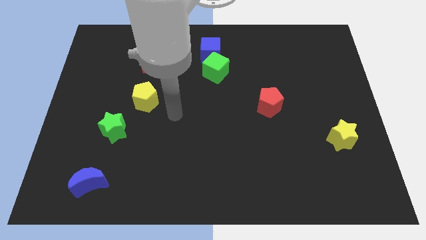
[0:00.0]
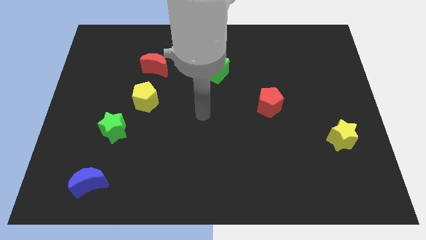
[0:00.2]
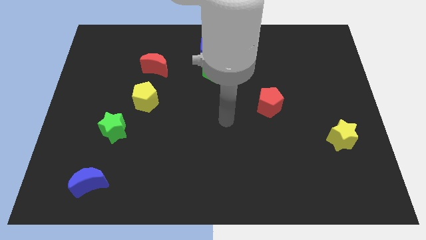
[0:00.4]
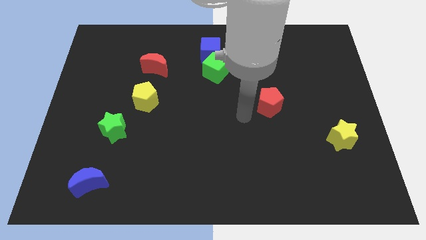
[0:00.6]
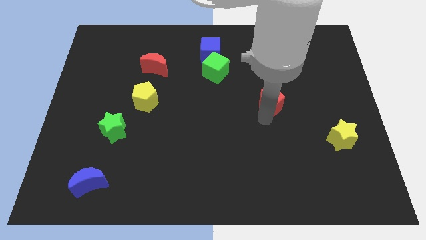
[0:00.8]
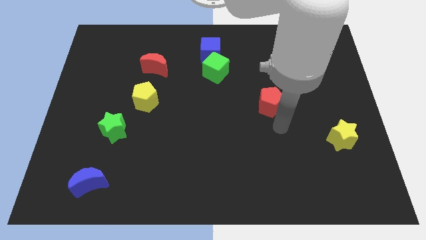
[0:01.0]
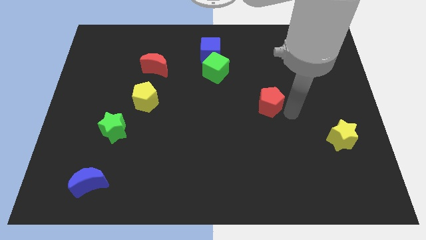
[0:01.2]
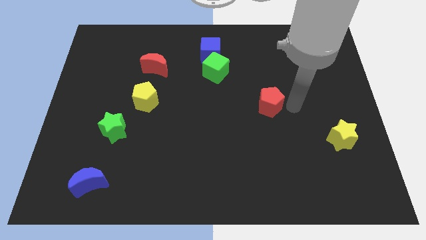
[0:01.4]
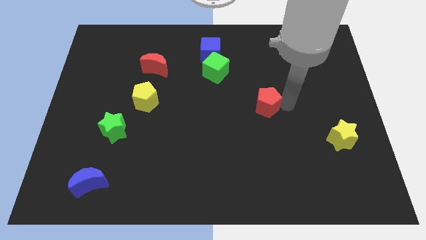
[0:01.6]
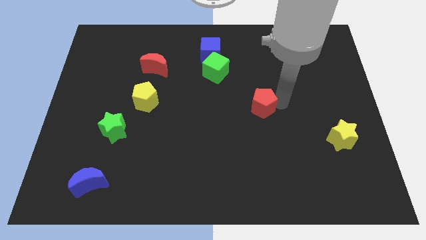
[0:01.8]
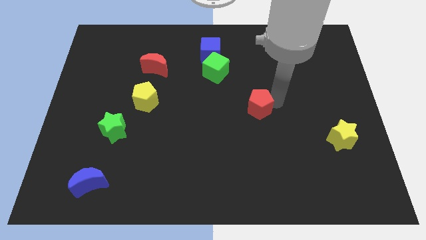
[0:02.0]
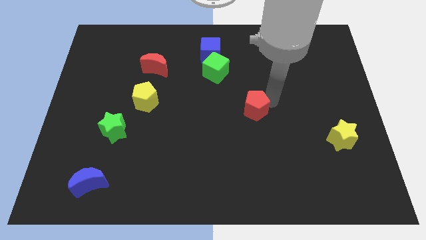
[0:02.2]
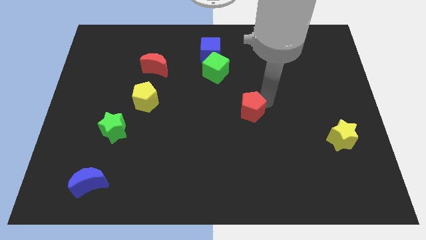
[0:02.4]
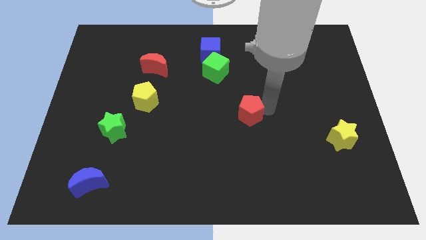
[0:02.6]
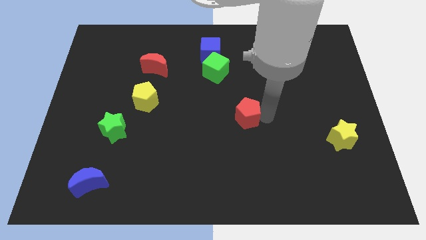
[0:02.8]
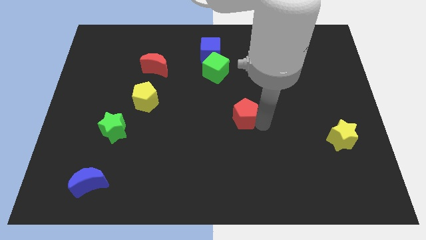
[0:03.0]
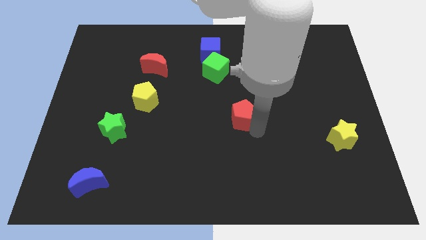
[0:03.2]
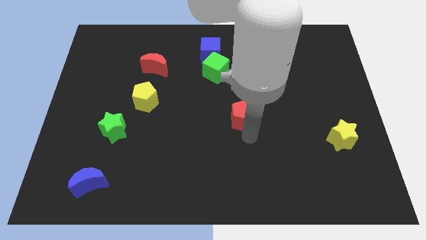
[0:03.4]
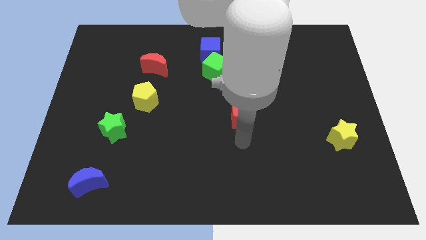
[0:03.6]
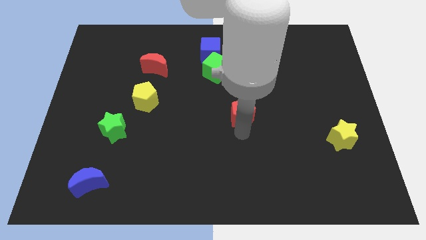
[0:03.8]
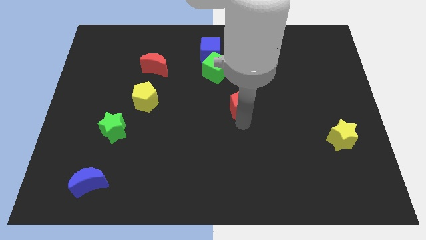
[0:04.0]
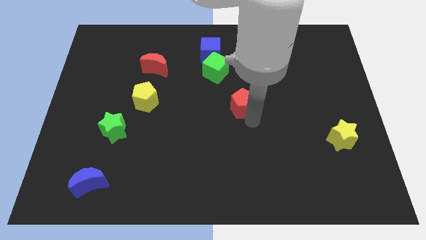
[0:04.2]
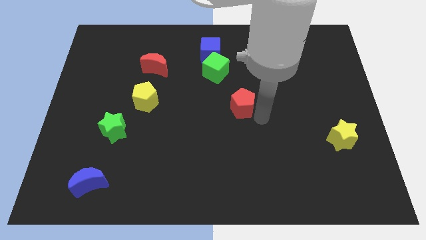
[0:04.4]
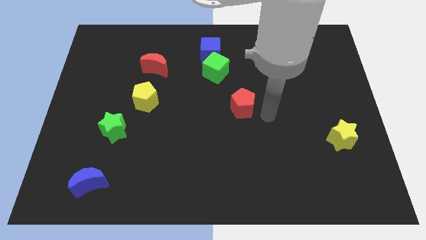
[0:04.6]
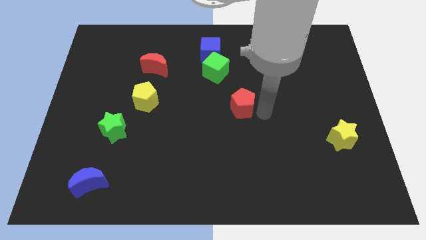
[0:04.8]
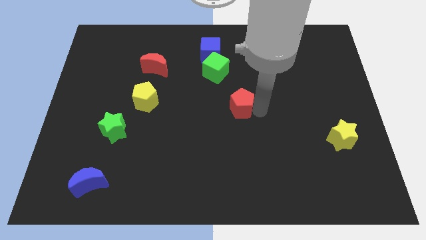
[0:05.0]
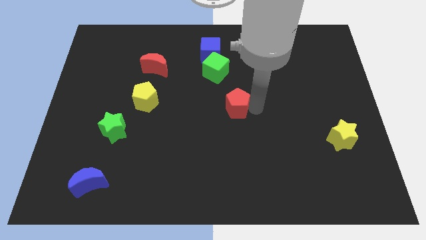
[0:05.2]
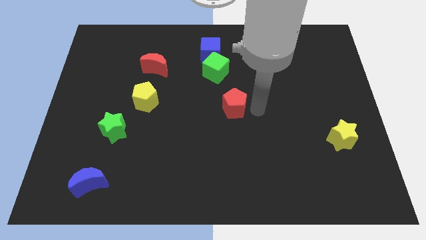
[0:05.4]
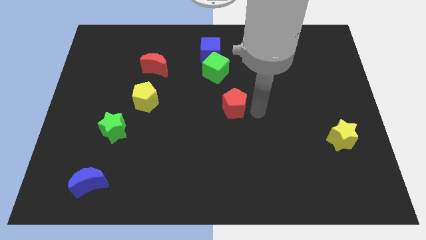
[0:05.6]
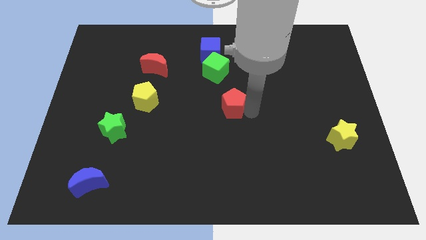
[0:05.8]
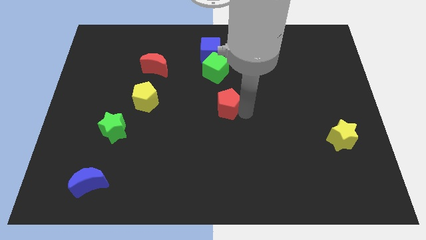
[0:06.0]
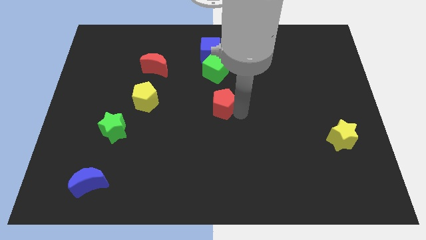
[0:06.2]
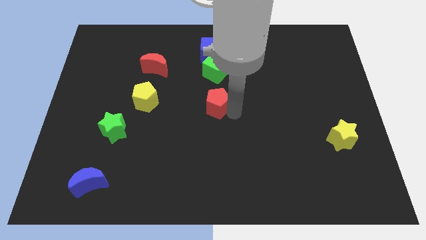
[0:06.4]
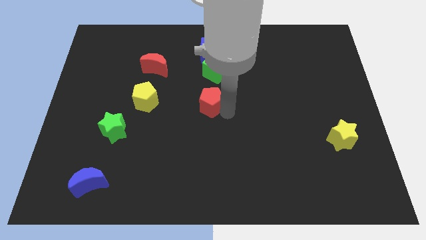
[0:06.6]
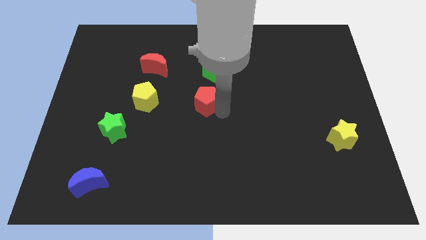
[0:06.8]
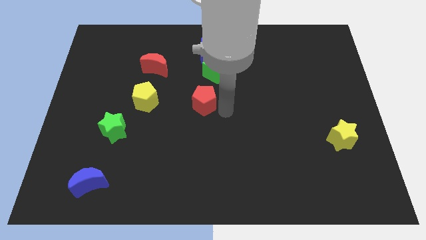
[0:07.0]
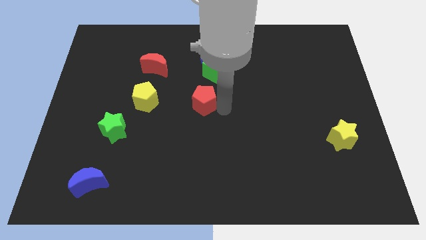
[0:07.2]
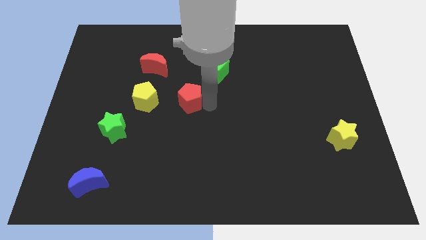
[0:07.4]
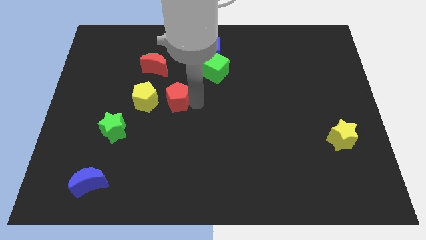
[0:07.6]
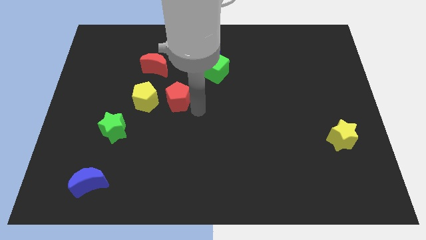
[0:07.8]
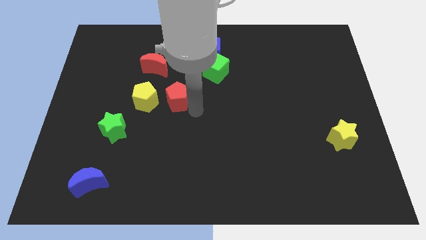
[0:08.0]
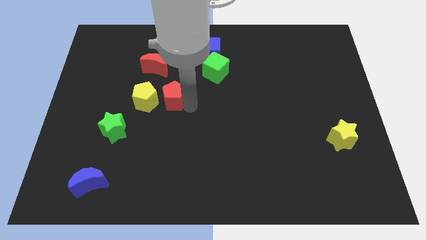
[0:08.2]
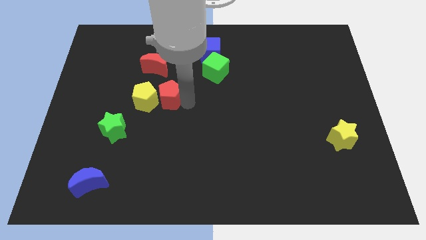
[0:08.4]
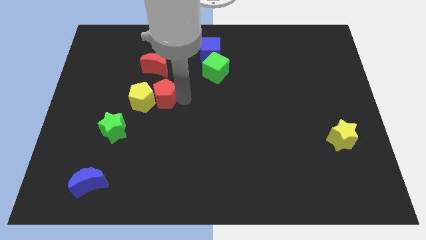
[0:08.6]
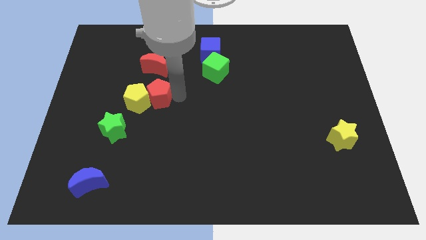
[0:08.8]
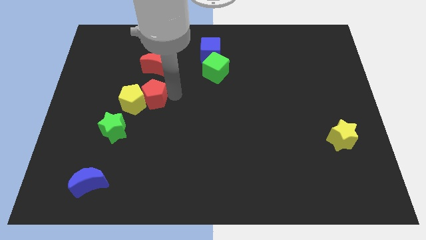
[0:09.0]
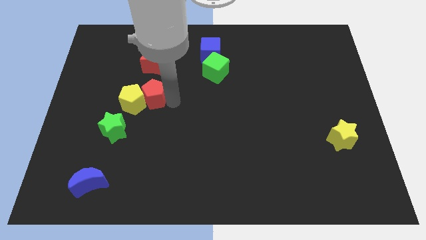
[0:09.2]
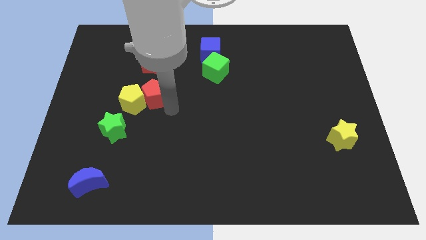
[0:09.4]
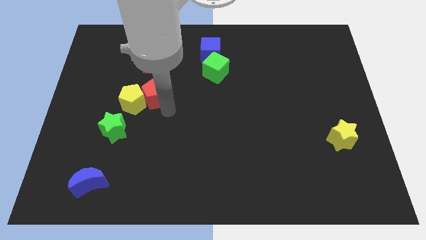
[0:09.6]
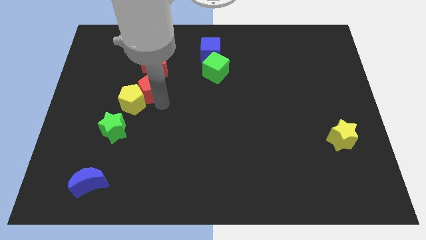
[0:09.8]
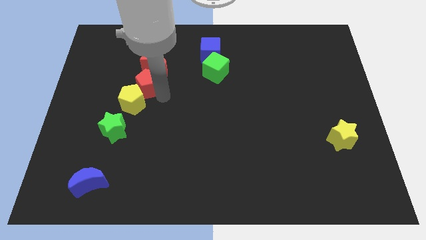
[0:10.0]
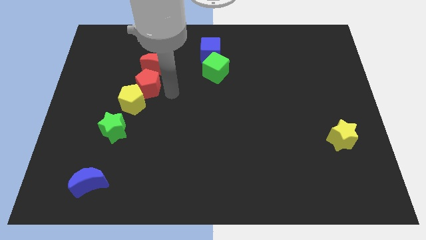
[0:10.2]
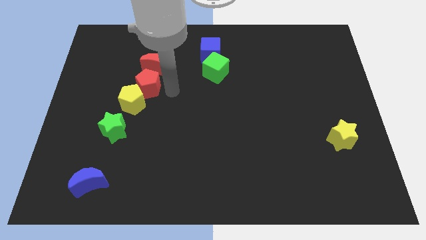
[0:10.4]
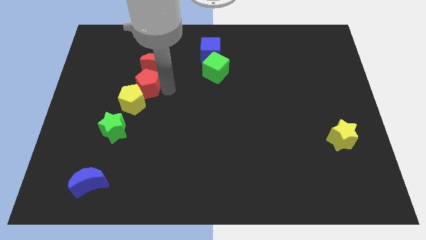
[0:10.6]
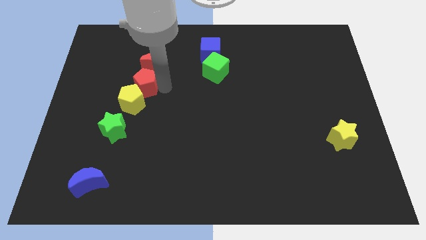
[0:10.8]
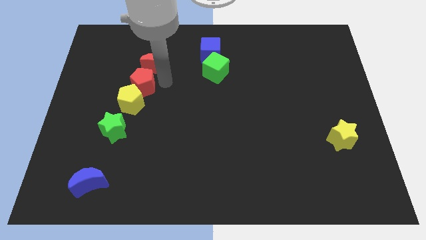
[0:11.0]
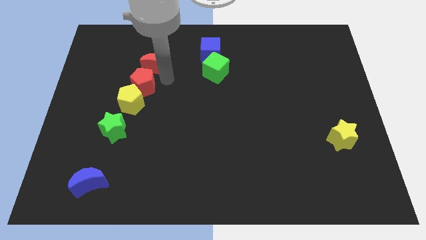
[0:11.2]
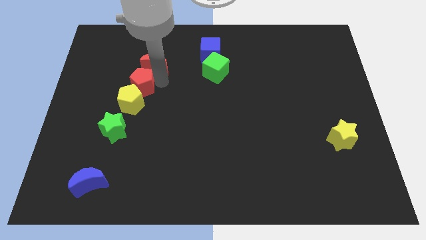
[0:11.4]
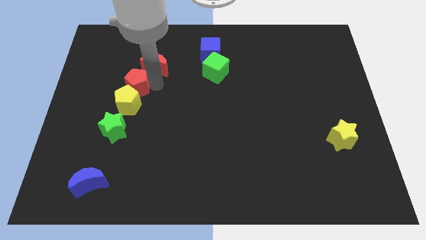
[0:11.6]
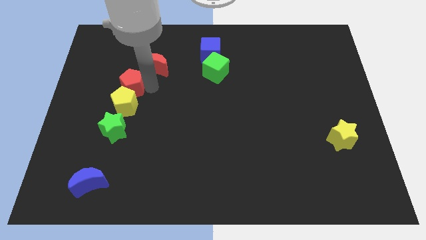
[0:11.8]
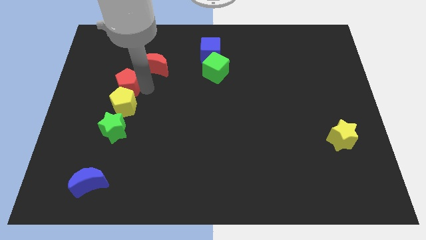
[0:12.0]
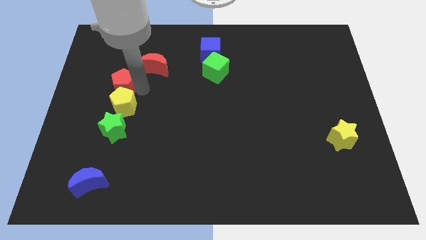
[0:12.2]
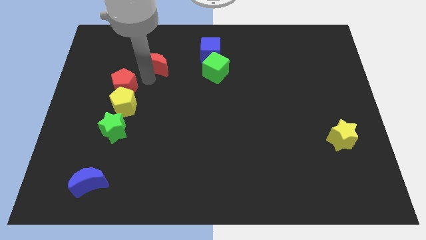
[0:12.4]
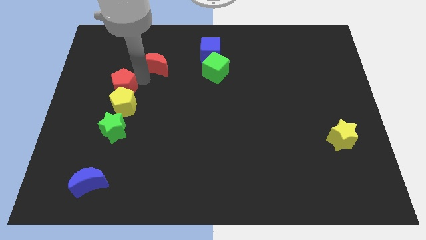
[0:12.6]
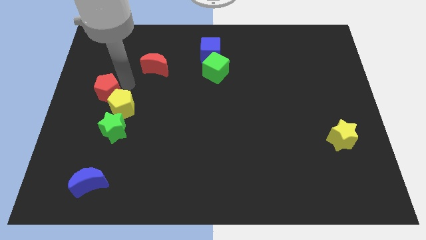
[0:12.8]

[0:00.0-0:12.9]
put the red pentagon to the left side

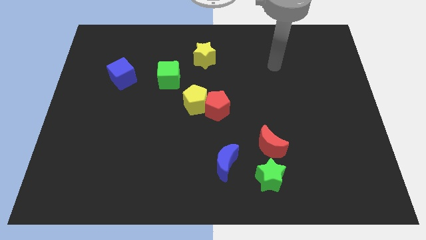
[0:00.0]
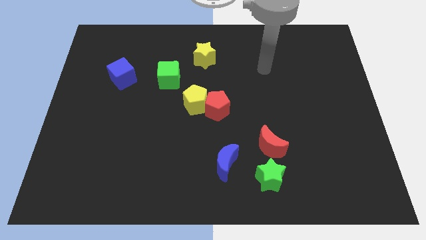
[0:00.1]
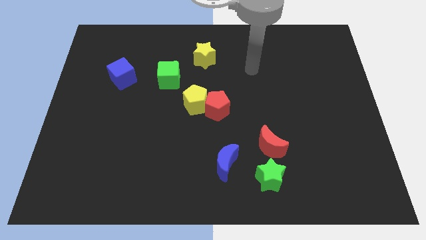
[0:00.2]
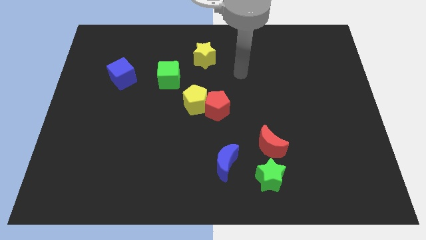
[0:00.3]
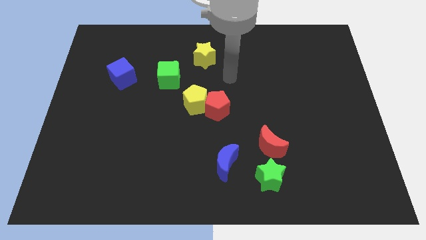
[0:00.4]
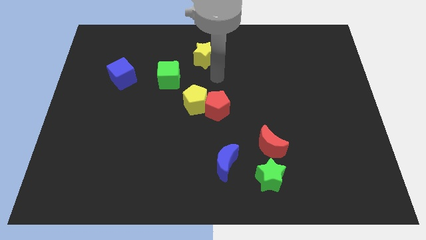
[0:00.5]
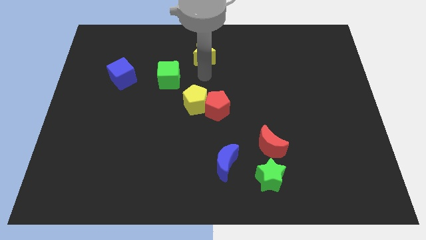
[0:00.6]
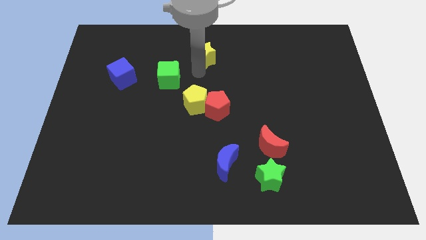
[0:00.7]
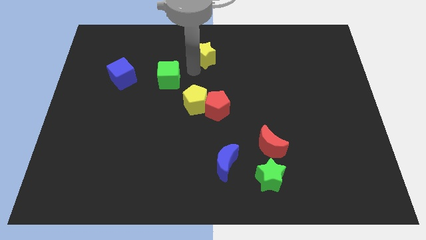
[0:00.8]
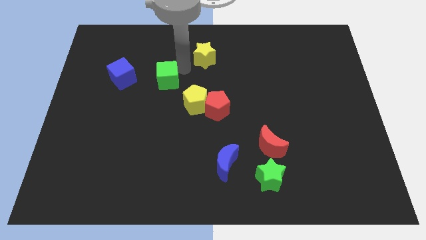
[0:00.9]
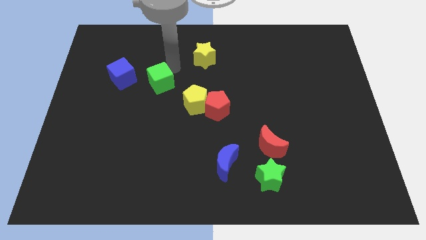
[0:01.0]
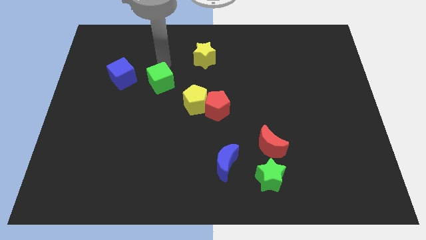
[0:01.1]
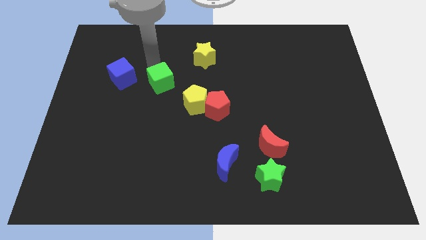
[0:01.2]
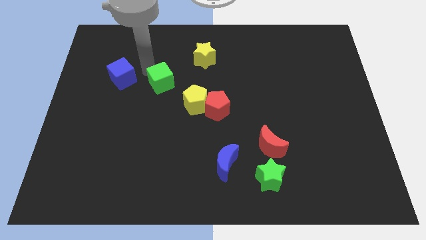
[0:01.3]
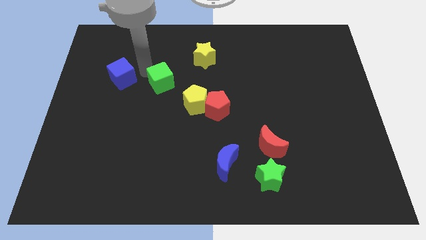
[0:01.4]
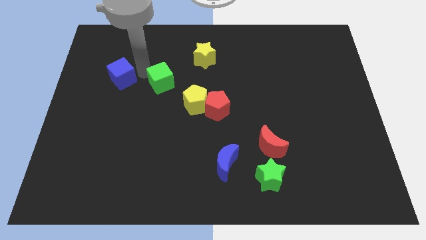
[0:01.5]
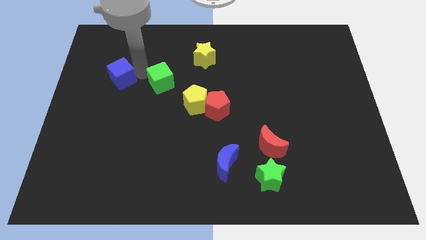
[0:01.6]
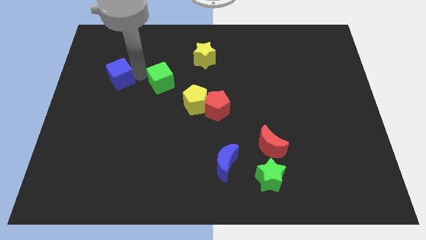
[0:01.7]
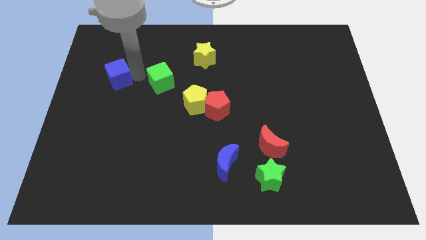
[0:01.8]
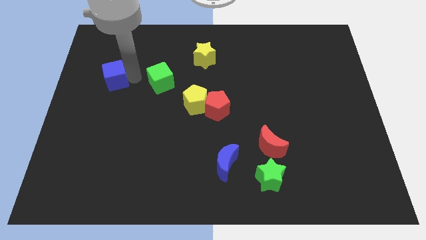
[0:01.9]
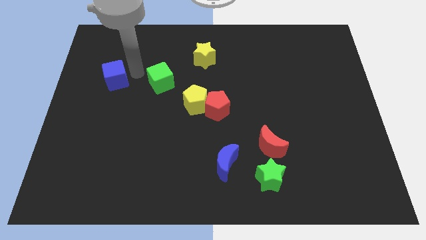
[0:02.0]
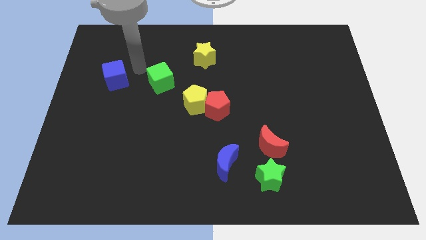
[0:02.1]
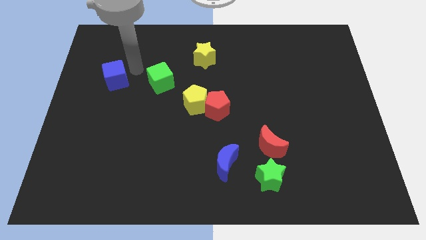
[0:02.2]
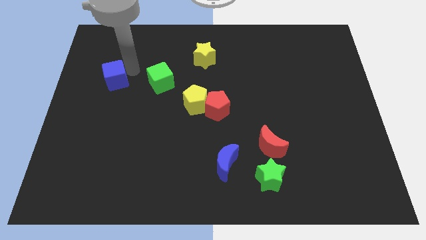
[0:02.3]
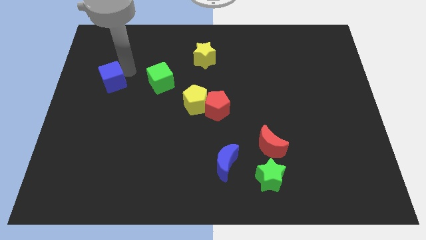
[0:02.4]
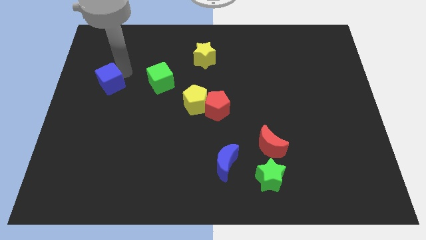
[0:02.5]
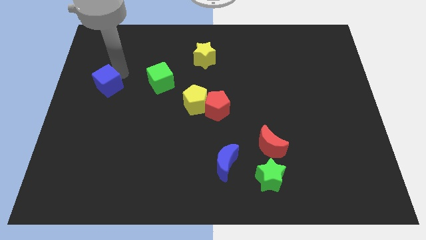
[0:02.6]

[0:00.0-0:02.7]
put the blue cube to the left side
